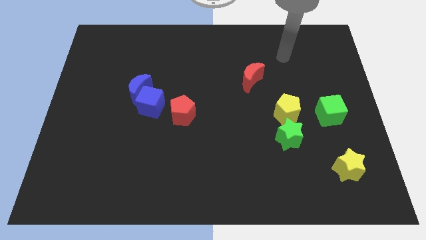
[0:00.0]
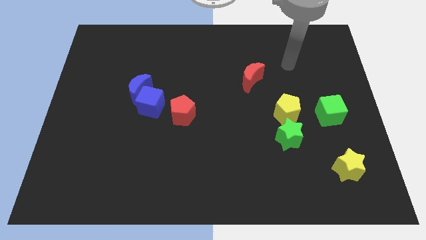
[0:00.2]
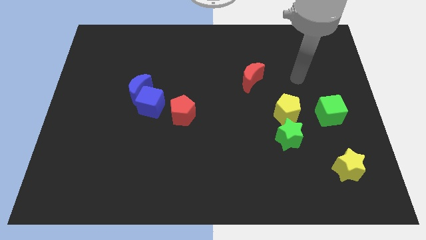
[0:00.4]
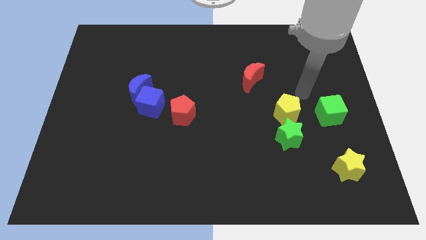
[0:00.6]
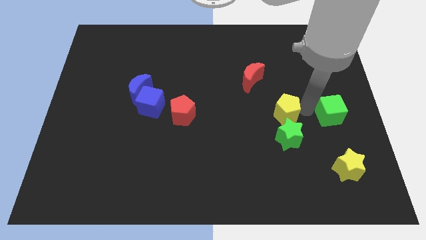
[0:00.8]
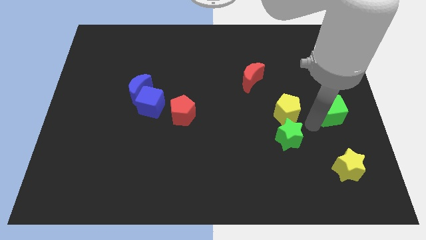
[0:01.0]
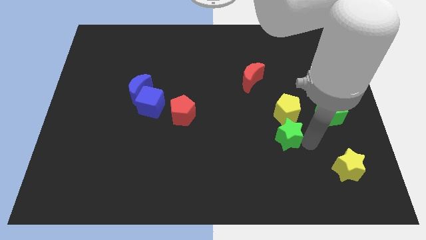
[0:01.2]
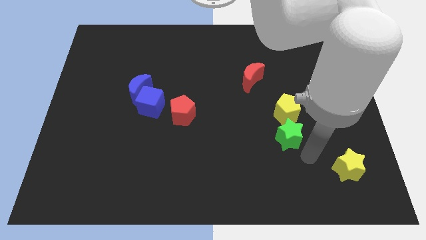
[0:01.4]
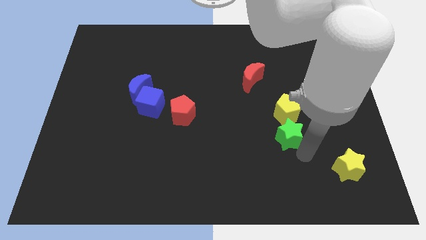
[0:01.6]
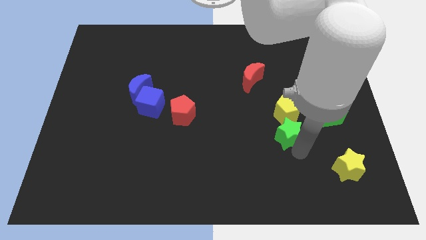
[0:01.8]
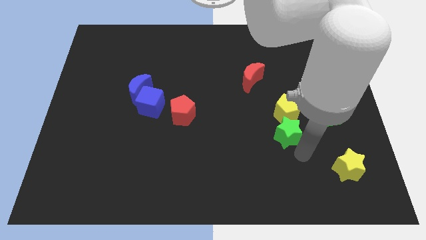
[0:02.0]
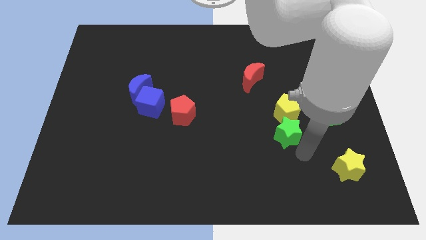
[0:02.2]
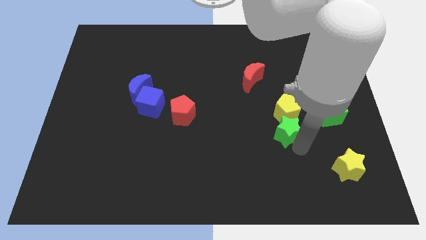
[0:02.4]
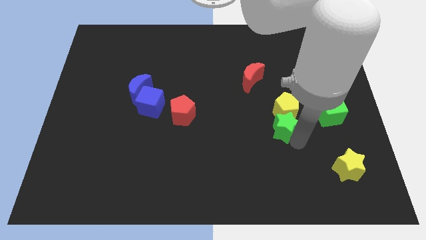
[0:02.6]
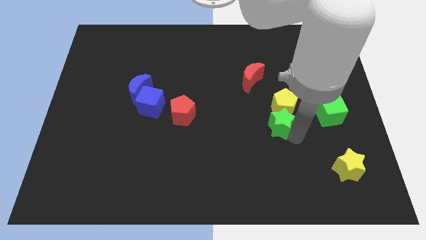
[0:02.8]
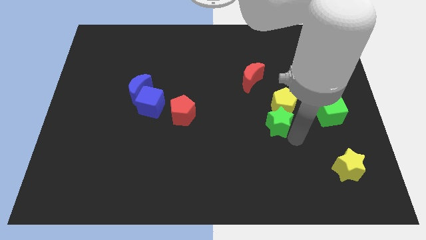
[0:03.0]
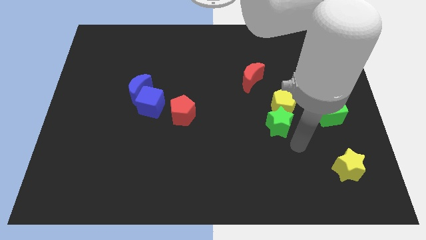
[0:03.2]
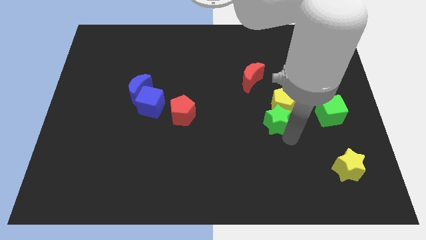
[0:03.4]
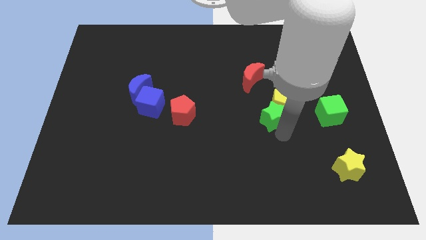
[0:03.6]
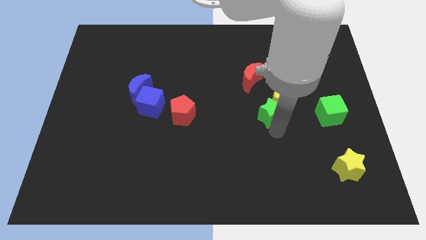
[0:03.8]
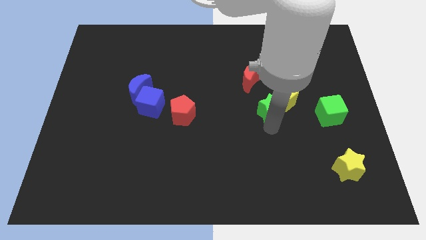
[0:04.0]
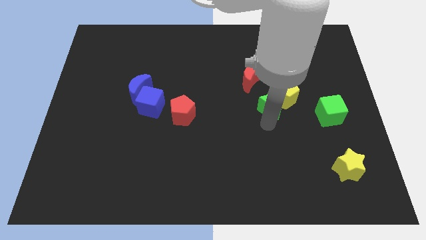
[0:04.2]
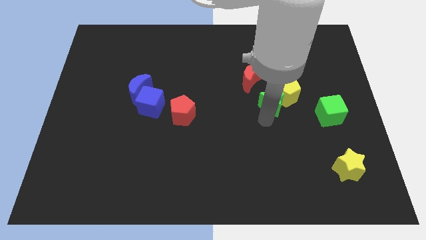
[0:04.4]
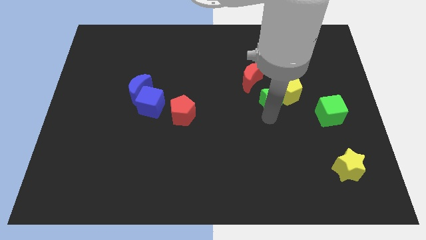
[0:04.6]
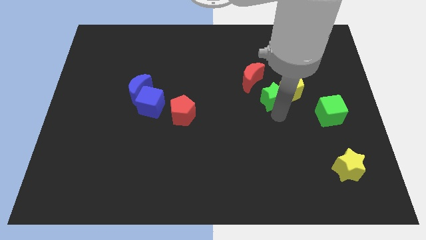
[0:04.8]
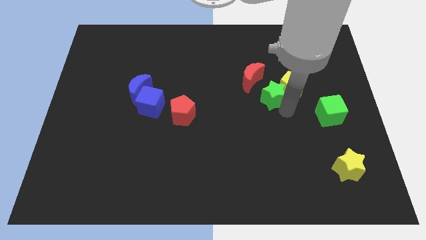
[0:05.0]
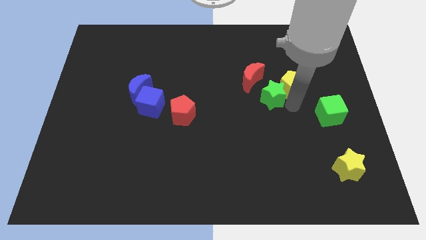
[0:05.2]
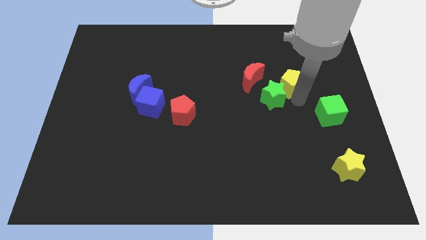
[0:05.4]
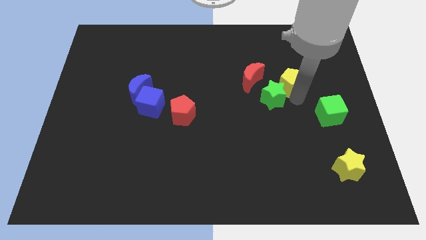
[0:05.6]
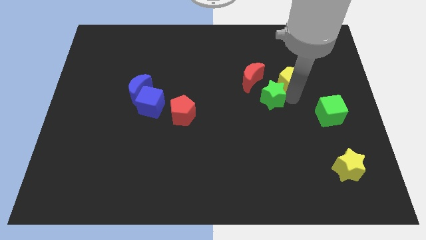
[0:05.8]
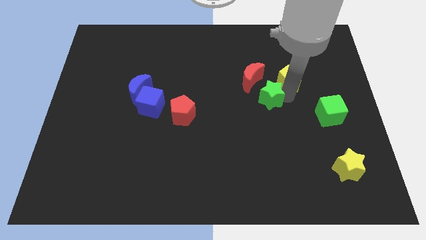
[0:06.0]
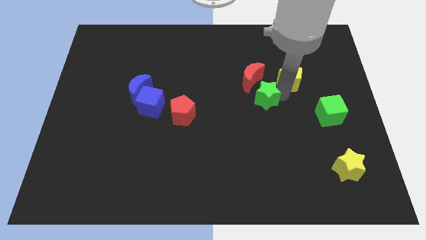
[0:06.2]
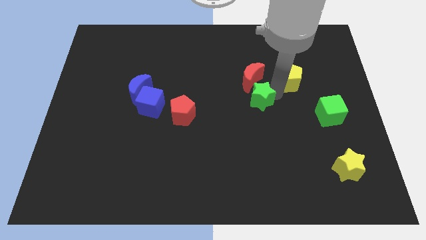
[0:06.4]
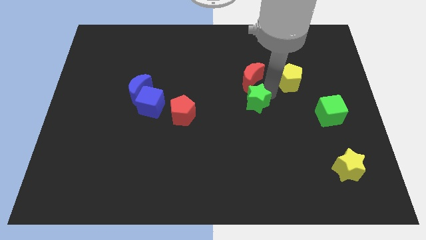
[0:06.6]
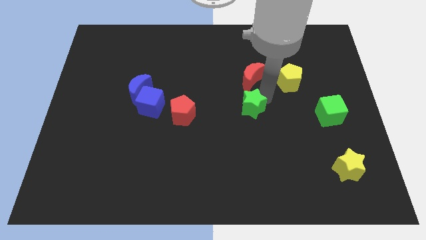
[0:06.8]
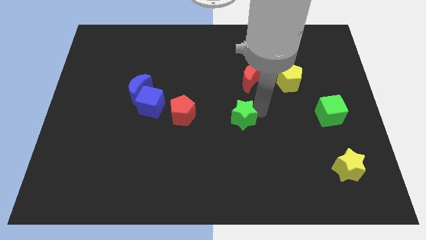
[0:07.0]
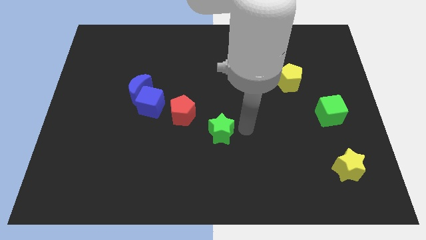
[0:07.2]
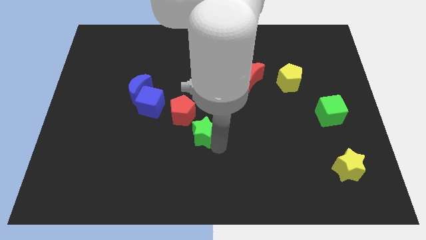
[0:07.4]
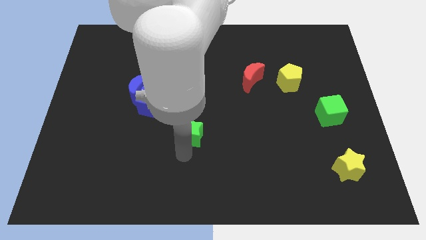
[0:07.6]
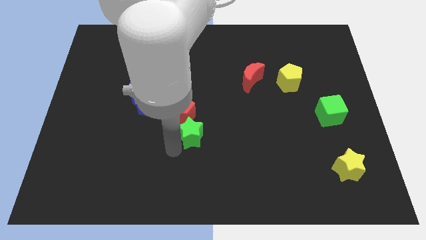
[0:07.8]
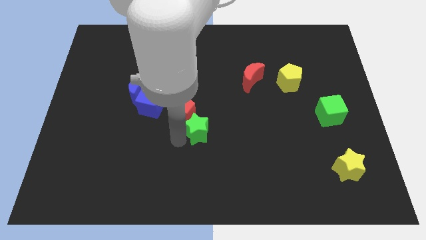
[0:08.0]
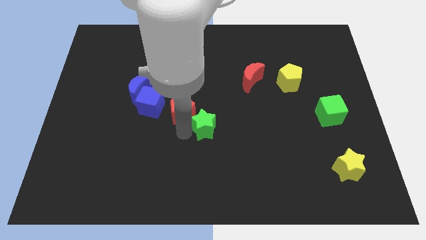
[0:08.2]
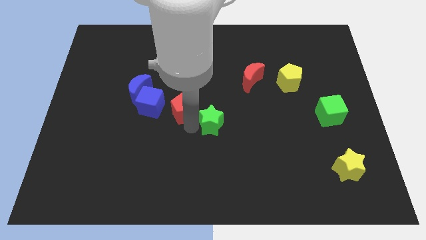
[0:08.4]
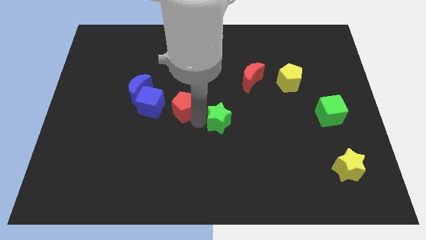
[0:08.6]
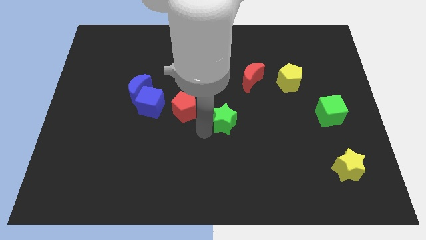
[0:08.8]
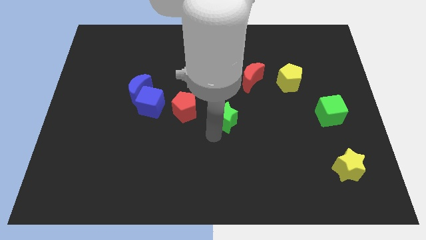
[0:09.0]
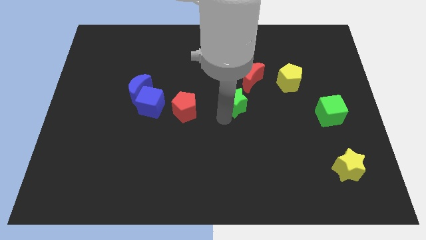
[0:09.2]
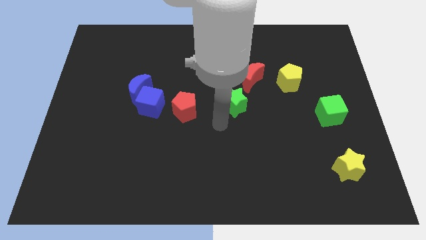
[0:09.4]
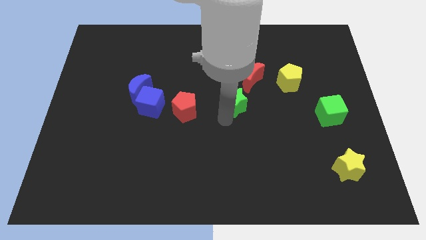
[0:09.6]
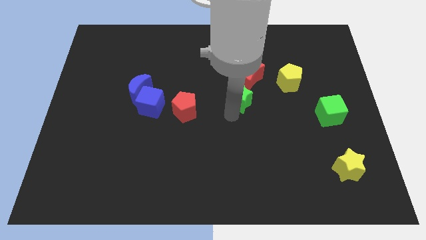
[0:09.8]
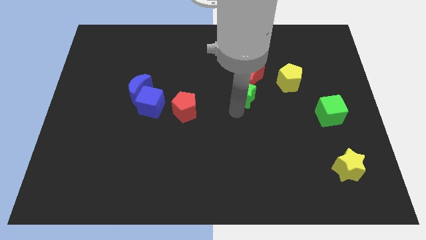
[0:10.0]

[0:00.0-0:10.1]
push the green star towards the red moon

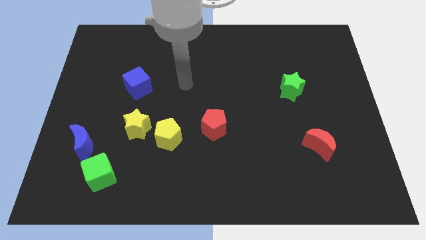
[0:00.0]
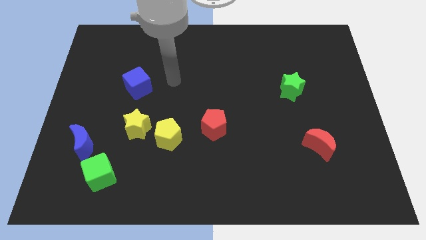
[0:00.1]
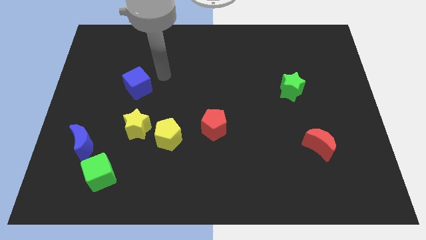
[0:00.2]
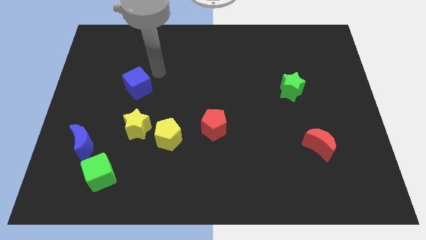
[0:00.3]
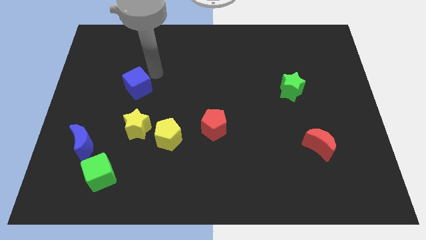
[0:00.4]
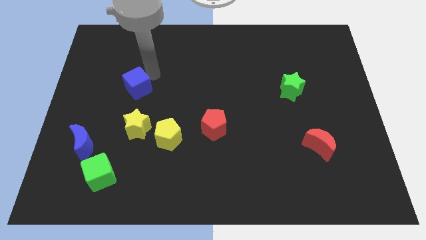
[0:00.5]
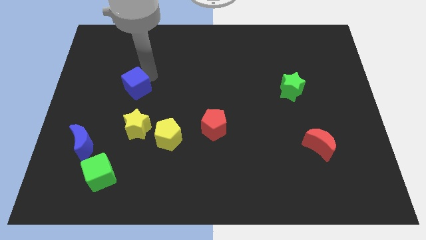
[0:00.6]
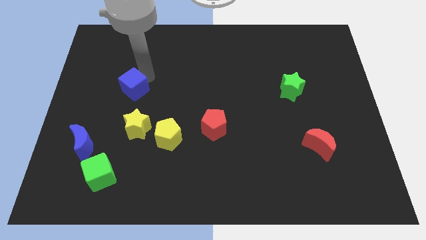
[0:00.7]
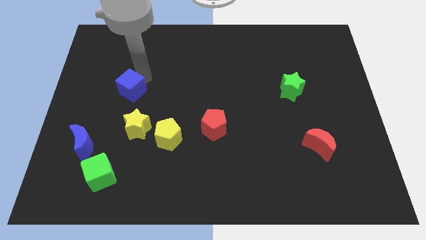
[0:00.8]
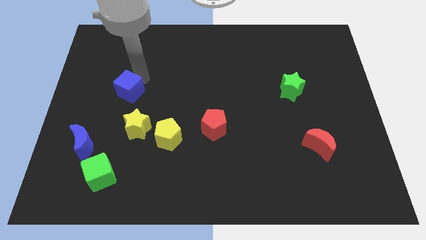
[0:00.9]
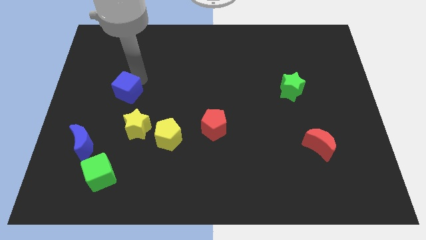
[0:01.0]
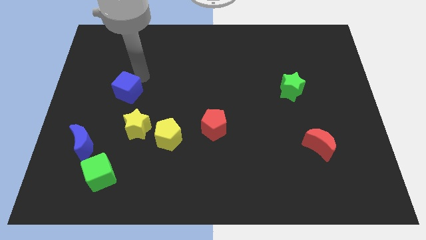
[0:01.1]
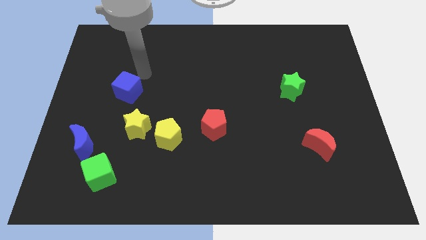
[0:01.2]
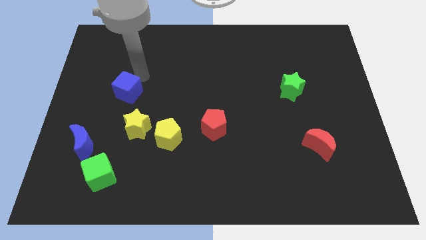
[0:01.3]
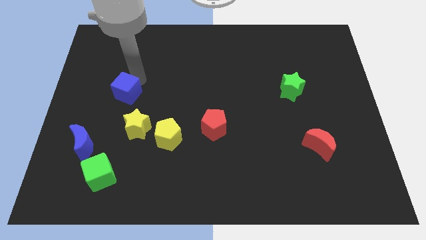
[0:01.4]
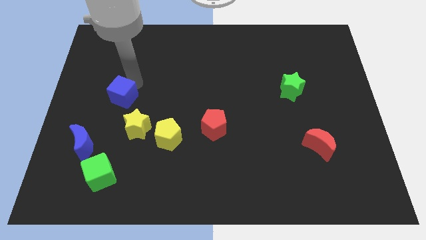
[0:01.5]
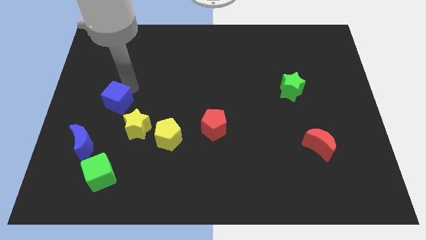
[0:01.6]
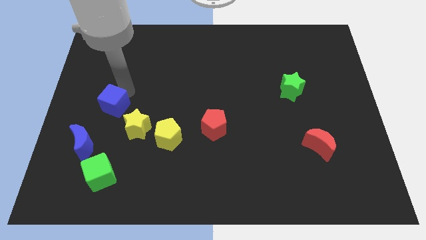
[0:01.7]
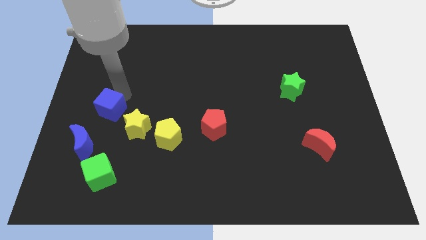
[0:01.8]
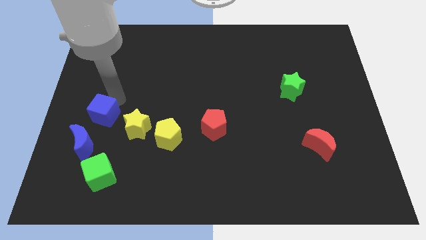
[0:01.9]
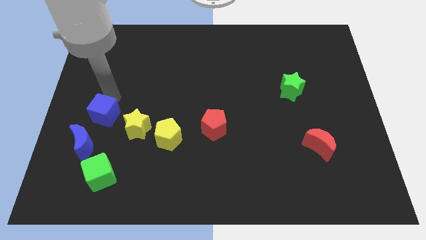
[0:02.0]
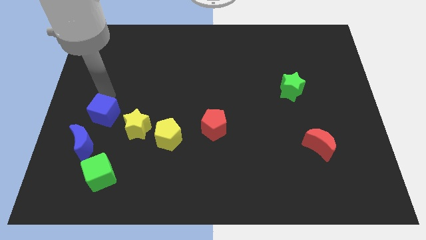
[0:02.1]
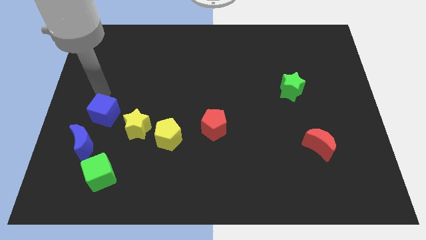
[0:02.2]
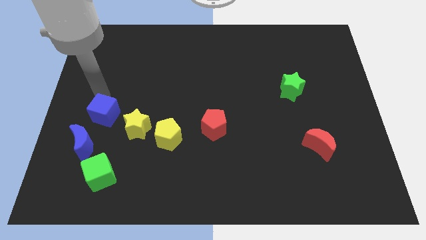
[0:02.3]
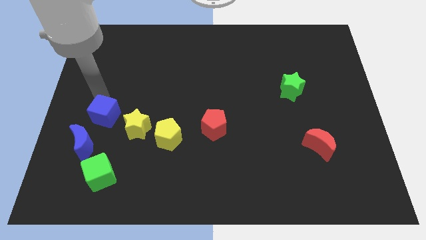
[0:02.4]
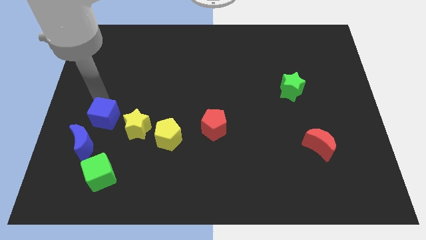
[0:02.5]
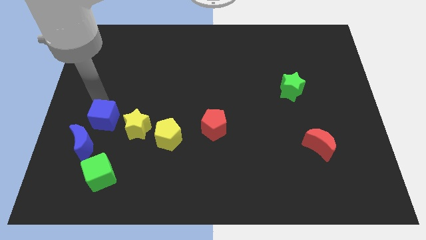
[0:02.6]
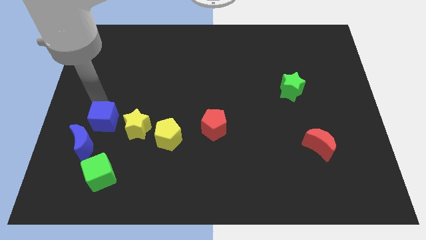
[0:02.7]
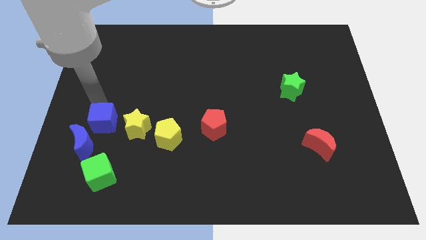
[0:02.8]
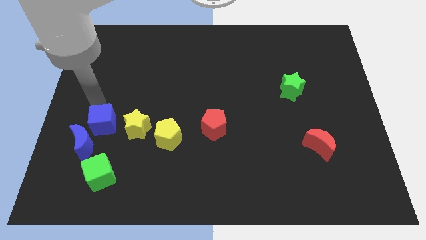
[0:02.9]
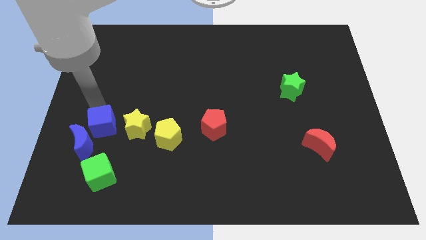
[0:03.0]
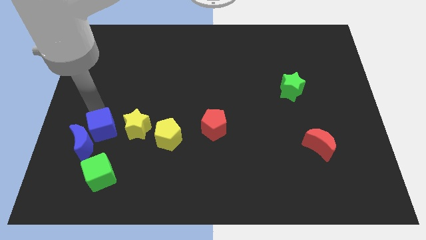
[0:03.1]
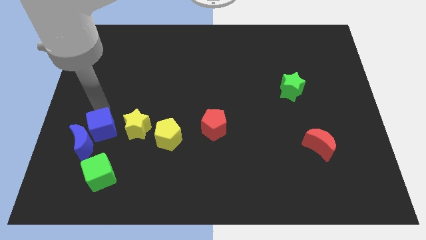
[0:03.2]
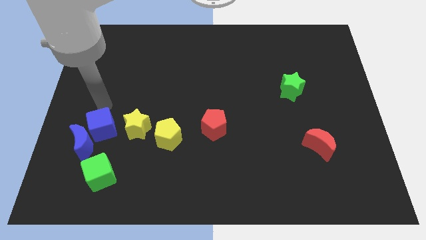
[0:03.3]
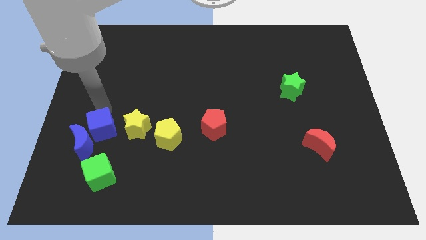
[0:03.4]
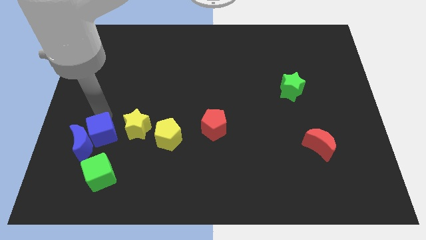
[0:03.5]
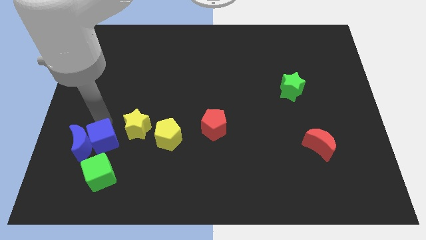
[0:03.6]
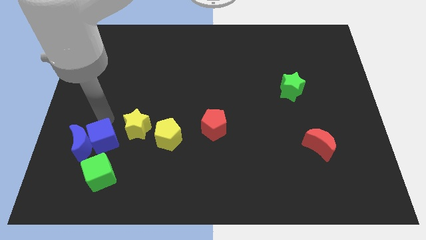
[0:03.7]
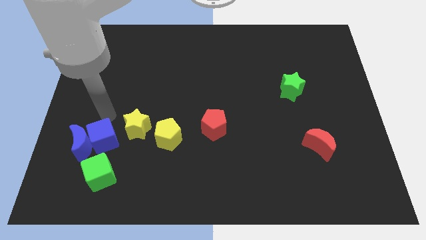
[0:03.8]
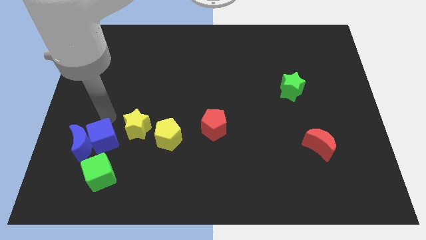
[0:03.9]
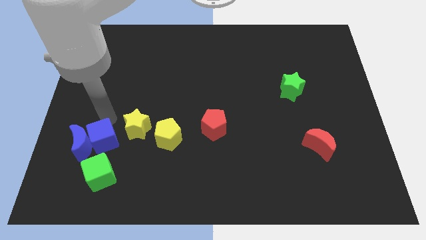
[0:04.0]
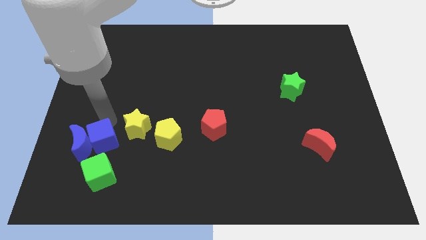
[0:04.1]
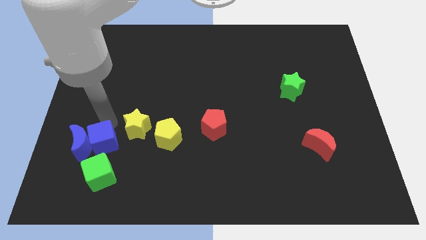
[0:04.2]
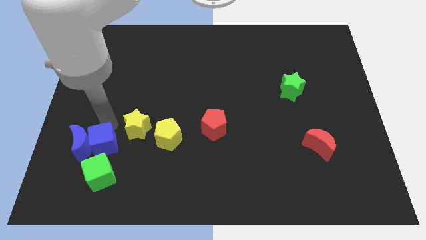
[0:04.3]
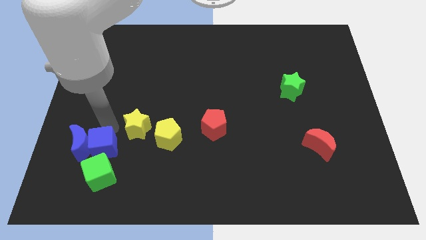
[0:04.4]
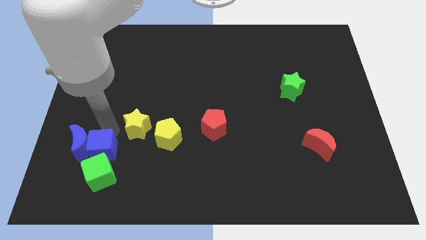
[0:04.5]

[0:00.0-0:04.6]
move the blue cube towards the green cube
